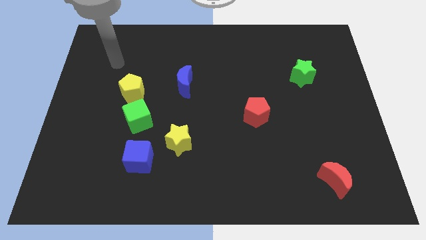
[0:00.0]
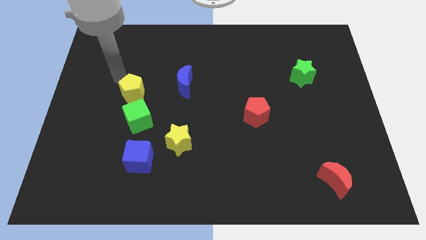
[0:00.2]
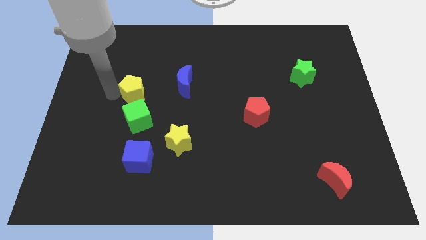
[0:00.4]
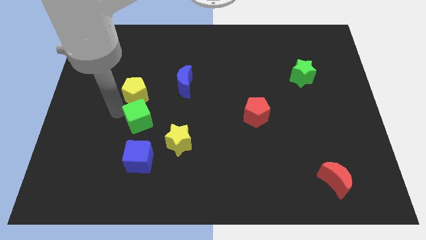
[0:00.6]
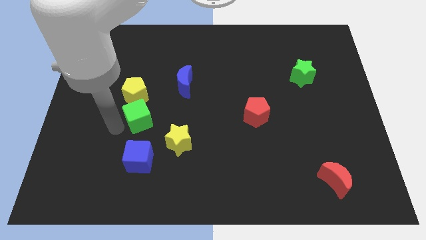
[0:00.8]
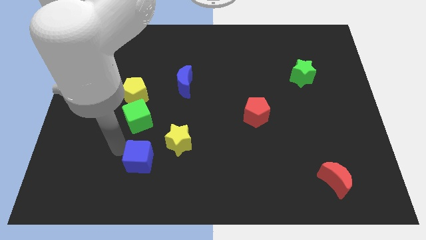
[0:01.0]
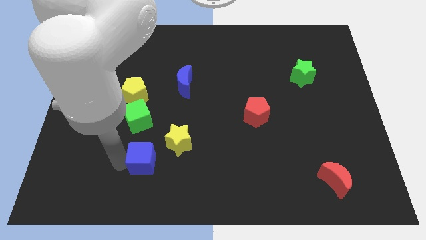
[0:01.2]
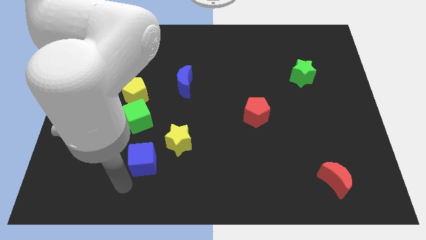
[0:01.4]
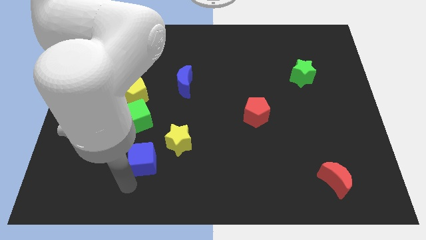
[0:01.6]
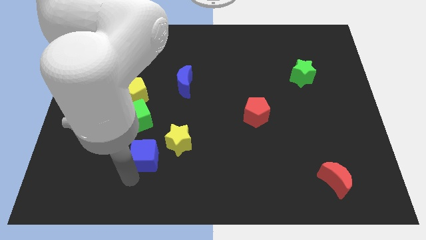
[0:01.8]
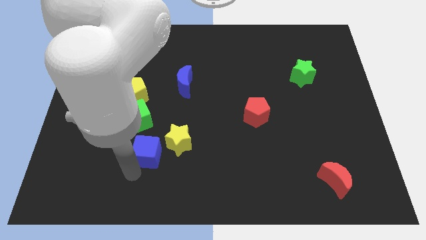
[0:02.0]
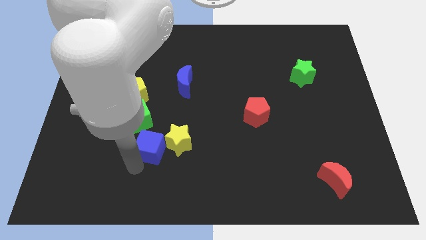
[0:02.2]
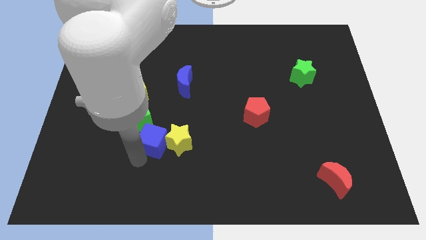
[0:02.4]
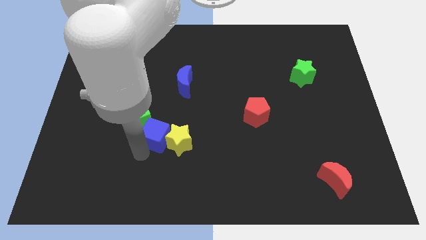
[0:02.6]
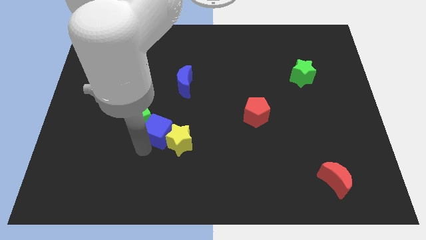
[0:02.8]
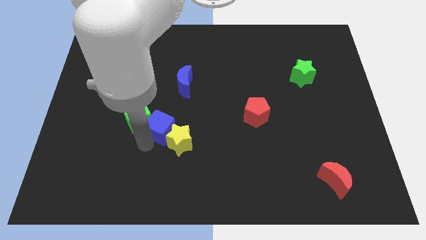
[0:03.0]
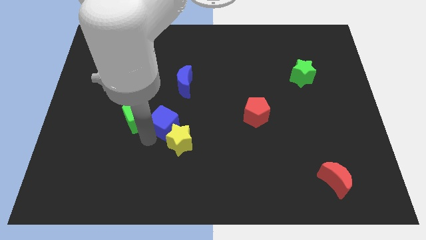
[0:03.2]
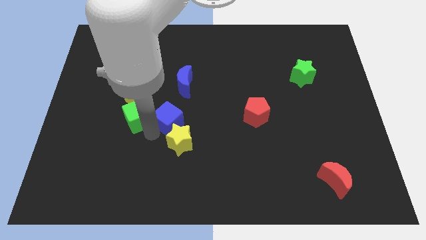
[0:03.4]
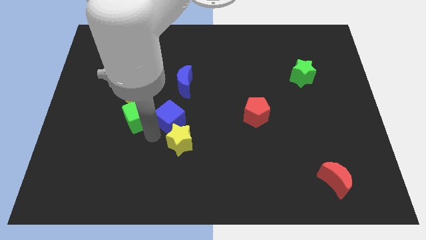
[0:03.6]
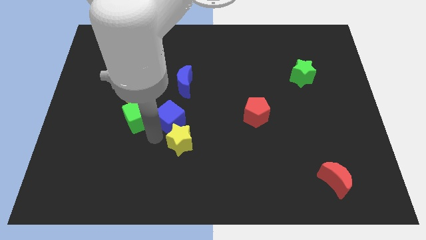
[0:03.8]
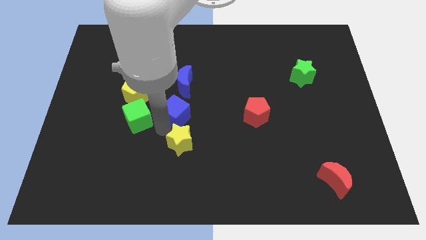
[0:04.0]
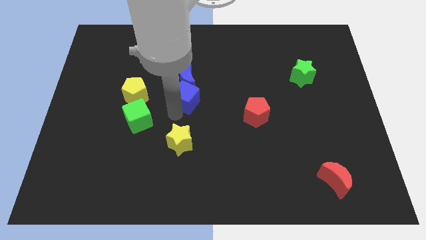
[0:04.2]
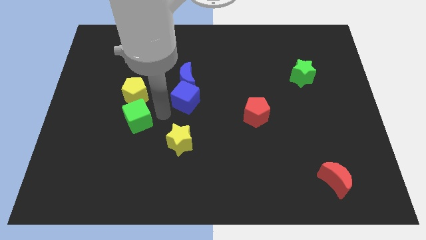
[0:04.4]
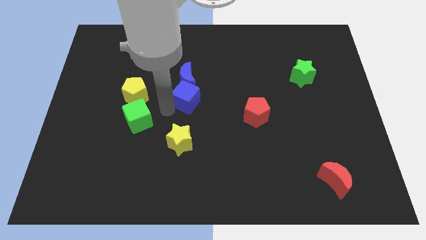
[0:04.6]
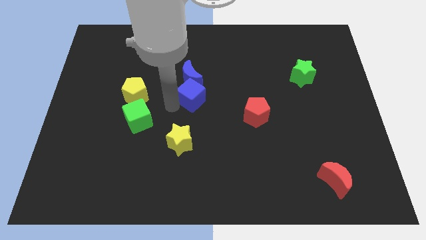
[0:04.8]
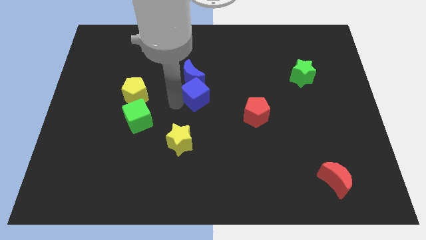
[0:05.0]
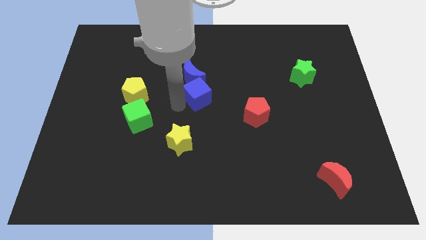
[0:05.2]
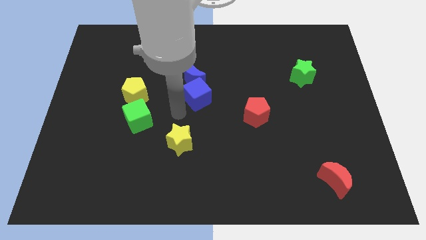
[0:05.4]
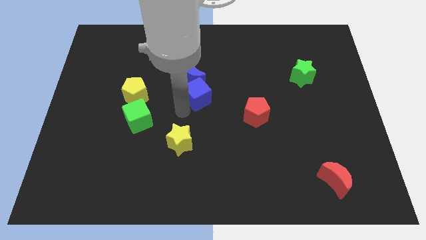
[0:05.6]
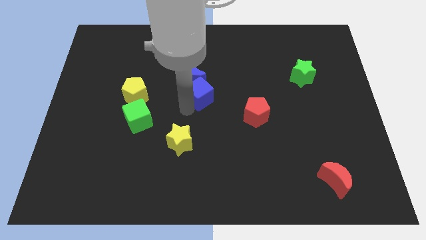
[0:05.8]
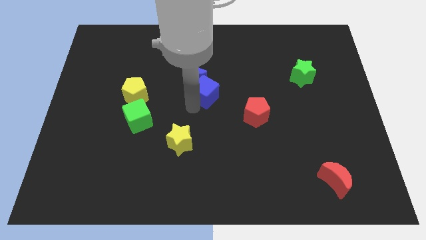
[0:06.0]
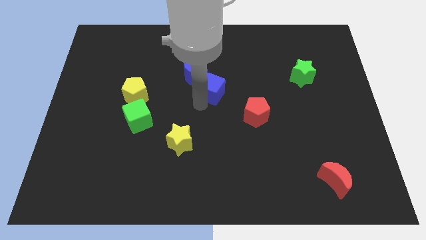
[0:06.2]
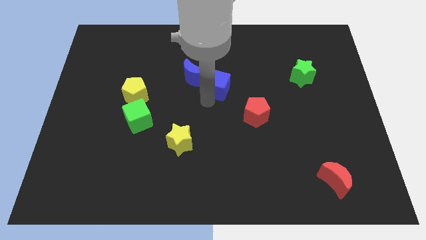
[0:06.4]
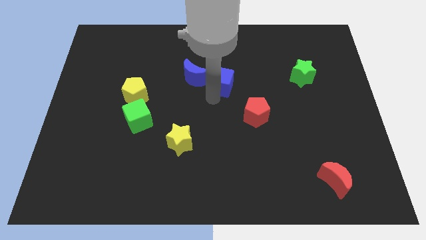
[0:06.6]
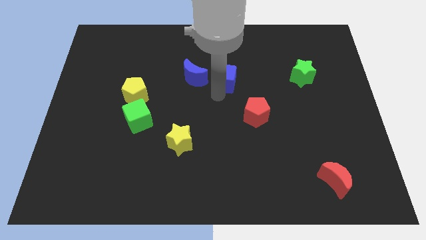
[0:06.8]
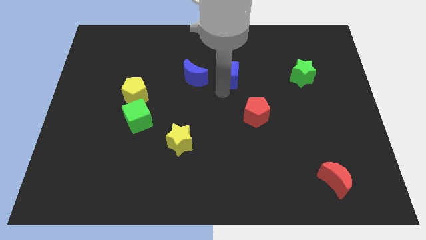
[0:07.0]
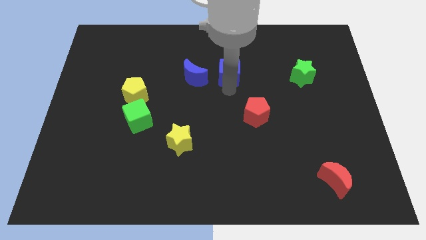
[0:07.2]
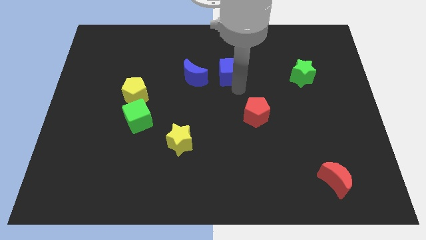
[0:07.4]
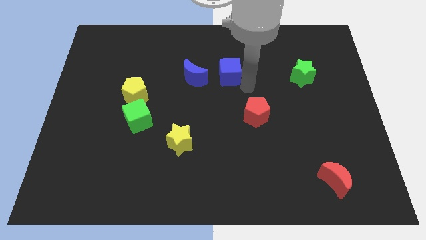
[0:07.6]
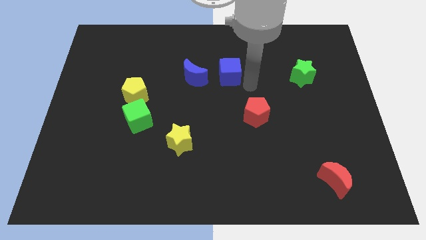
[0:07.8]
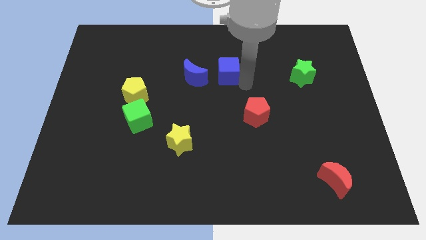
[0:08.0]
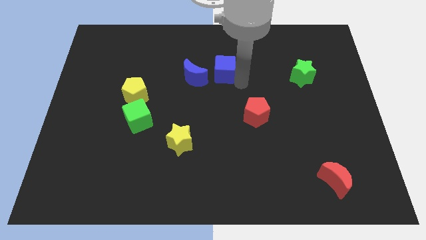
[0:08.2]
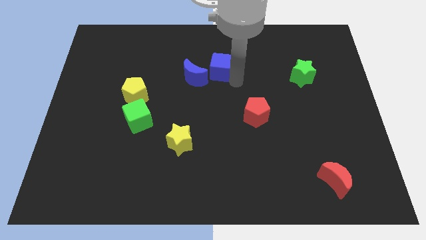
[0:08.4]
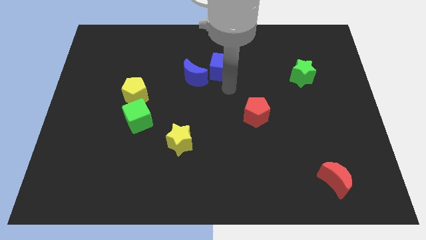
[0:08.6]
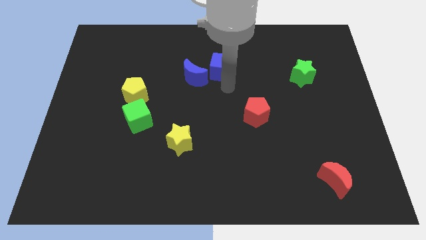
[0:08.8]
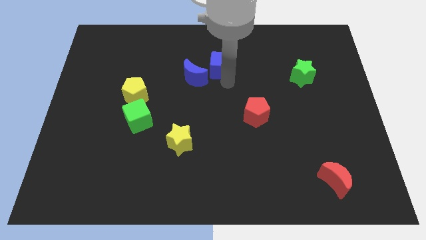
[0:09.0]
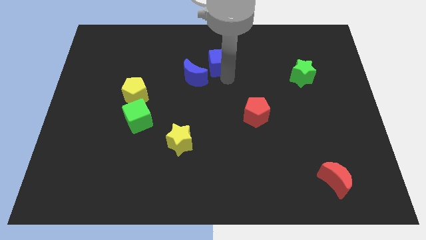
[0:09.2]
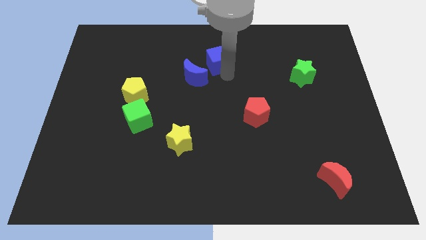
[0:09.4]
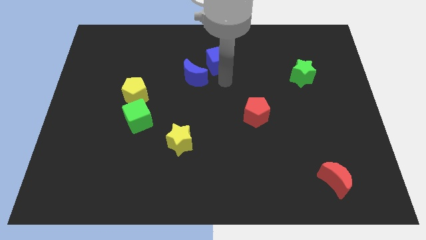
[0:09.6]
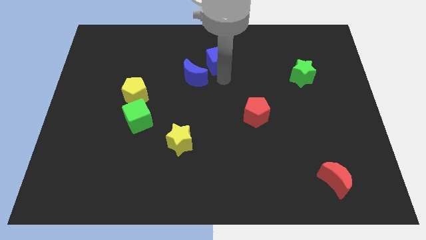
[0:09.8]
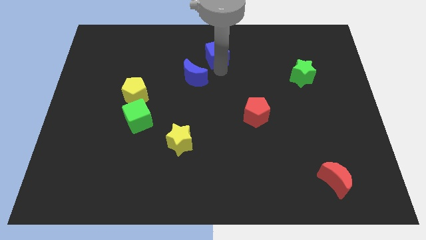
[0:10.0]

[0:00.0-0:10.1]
move the blue cube to the top side
